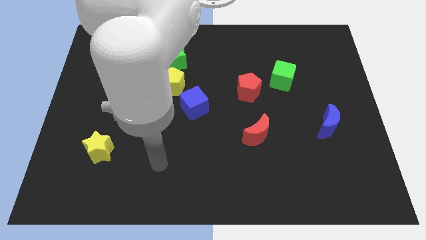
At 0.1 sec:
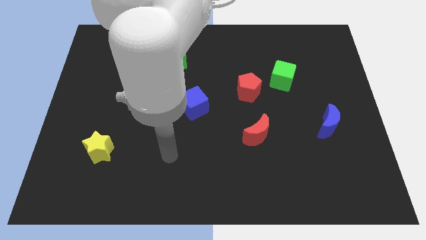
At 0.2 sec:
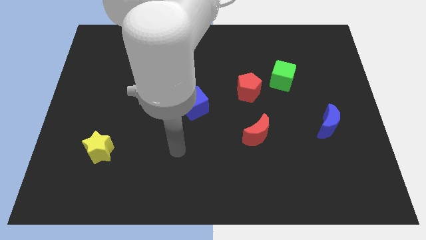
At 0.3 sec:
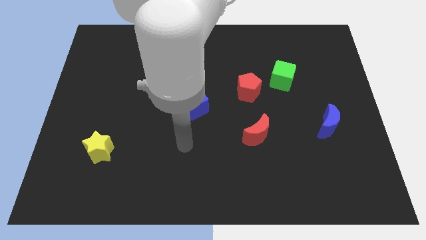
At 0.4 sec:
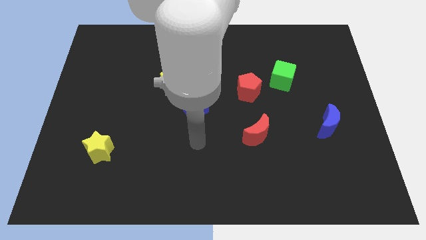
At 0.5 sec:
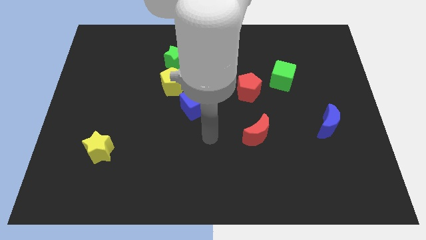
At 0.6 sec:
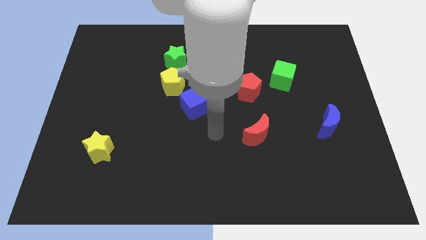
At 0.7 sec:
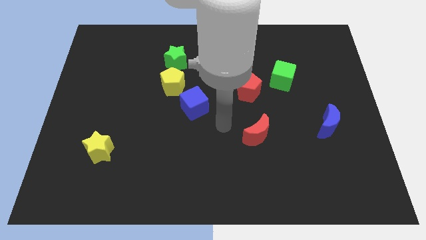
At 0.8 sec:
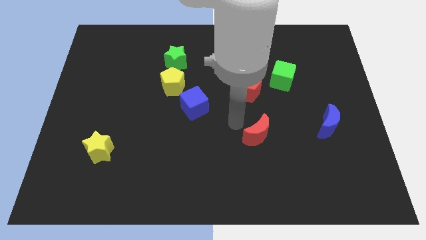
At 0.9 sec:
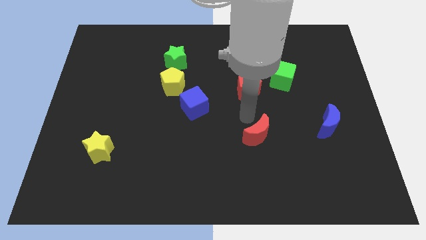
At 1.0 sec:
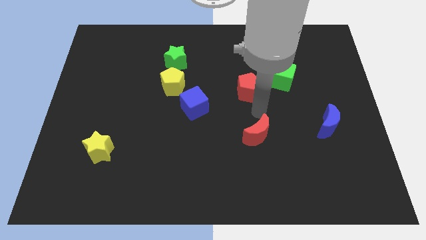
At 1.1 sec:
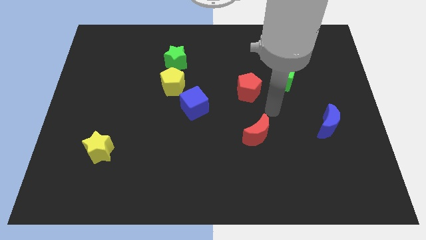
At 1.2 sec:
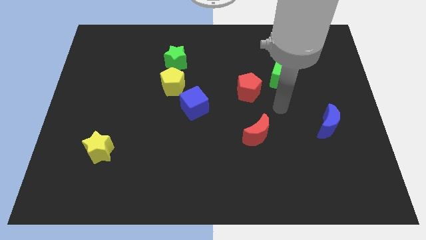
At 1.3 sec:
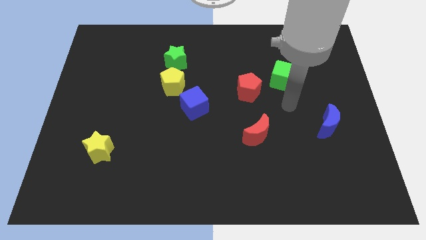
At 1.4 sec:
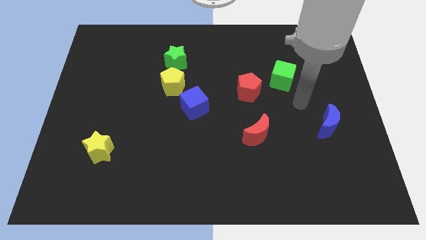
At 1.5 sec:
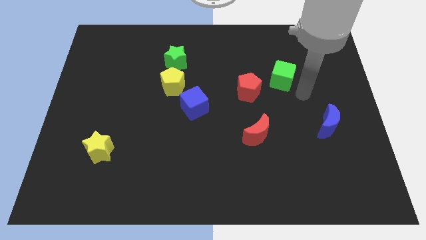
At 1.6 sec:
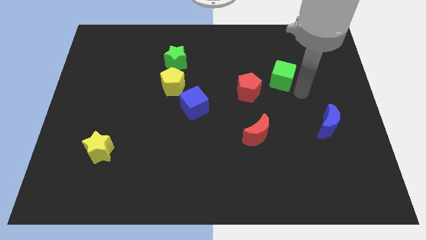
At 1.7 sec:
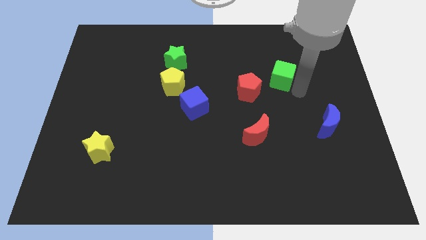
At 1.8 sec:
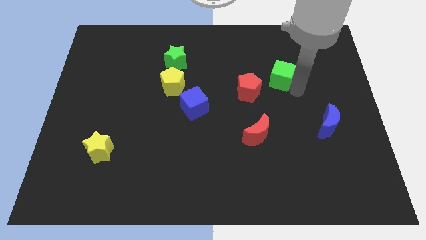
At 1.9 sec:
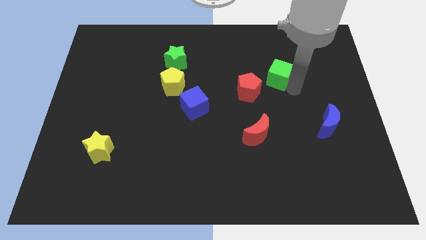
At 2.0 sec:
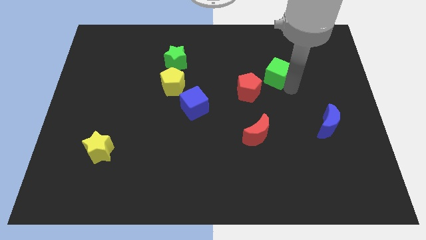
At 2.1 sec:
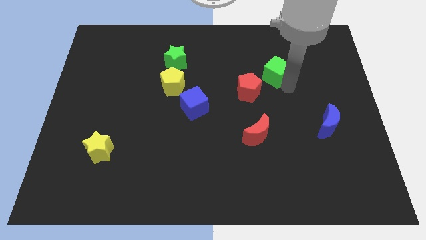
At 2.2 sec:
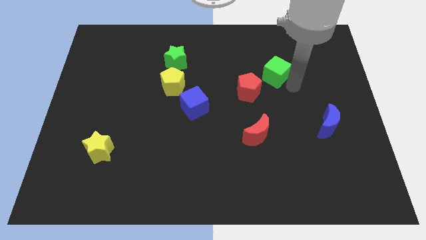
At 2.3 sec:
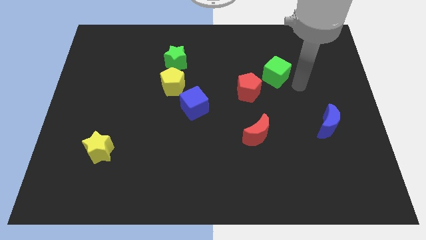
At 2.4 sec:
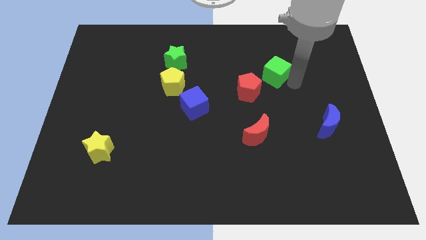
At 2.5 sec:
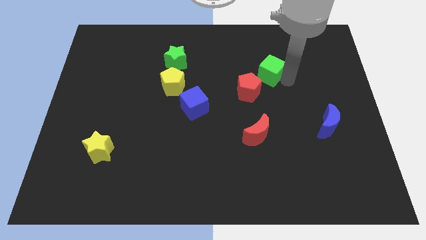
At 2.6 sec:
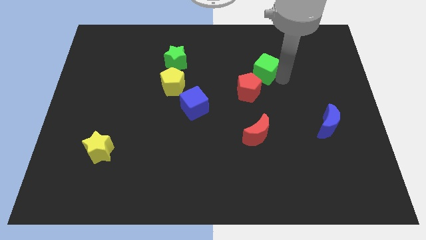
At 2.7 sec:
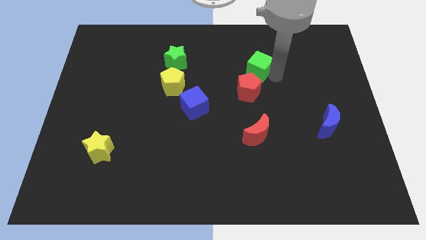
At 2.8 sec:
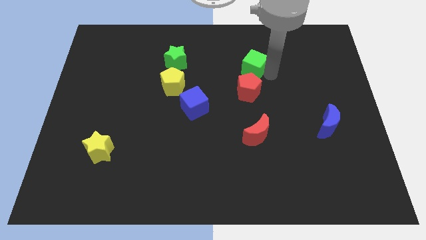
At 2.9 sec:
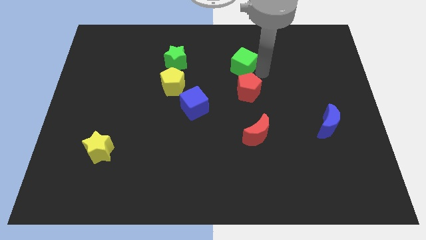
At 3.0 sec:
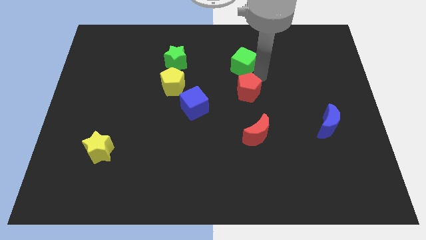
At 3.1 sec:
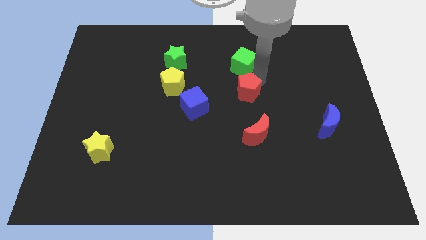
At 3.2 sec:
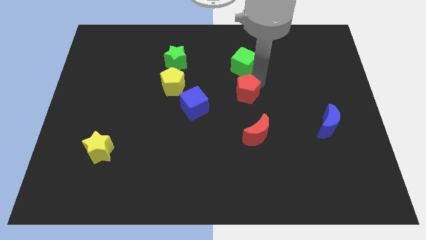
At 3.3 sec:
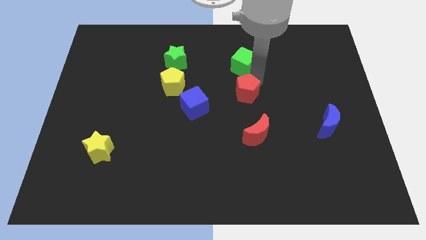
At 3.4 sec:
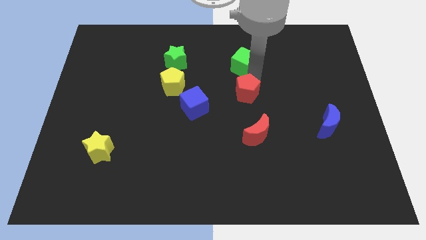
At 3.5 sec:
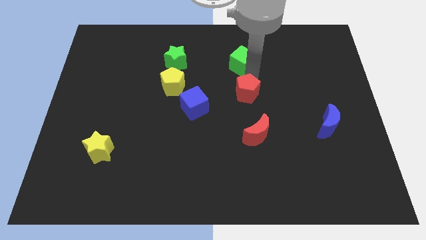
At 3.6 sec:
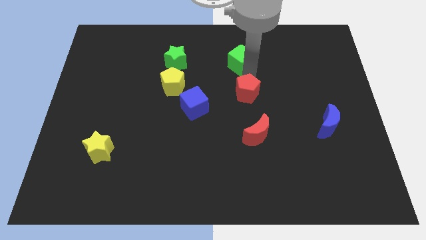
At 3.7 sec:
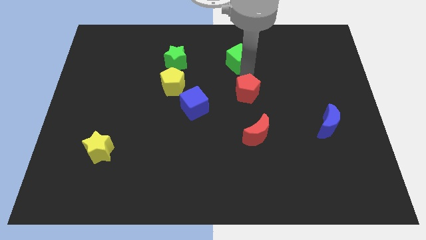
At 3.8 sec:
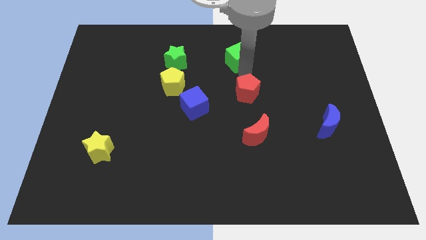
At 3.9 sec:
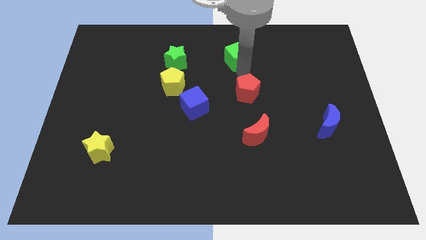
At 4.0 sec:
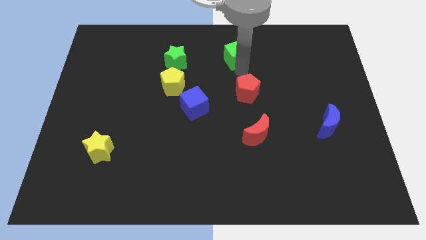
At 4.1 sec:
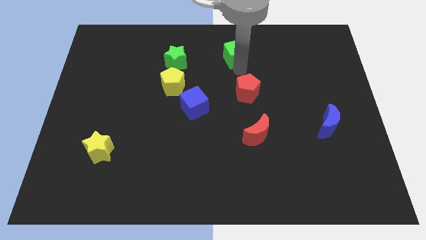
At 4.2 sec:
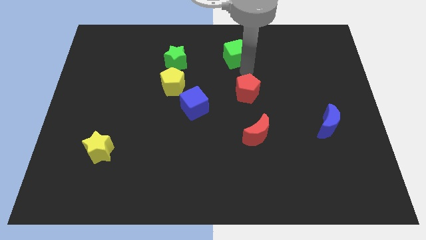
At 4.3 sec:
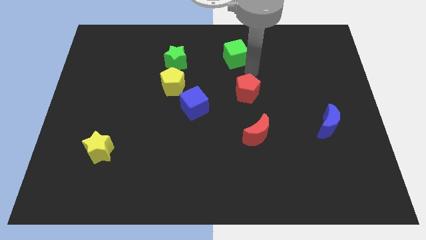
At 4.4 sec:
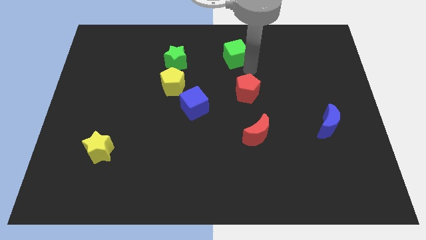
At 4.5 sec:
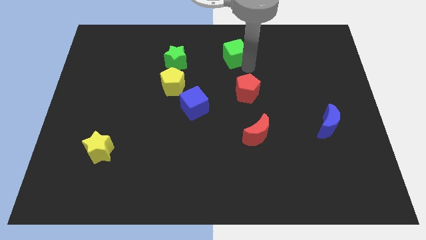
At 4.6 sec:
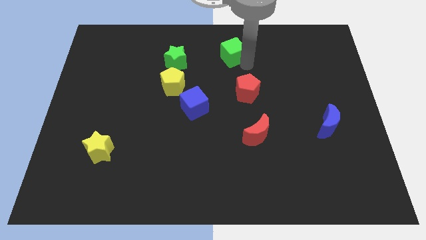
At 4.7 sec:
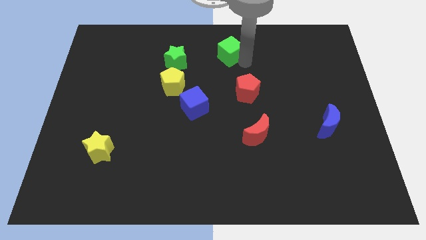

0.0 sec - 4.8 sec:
slide the green cube to the top side
